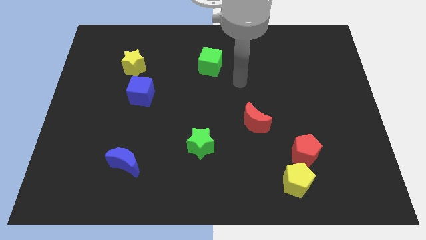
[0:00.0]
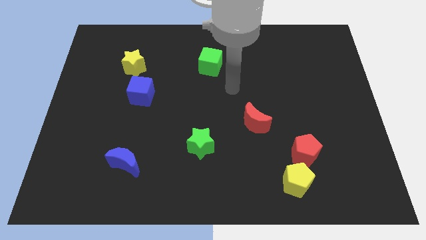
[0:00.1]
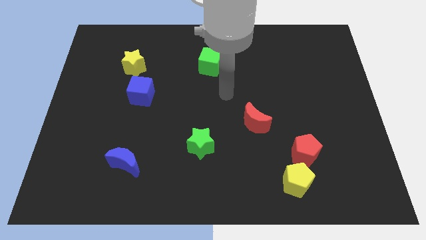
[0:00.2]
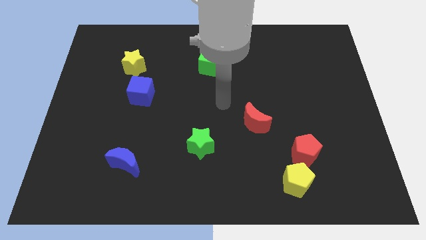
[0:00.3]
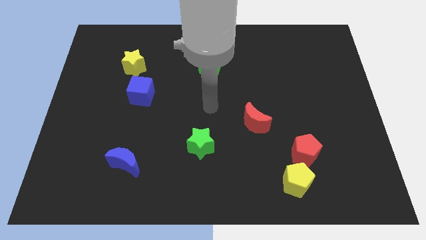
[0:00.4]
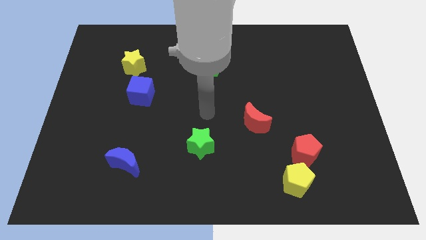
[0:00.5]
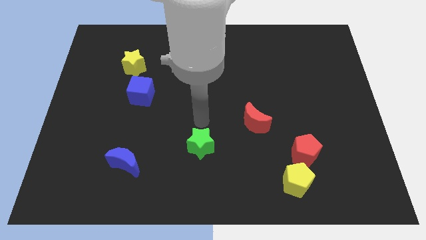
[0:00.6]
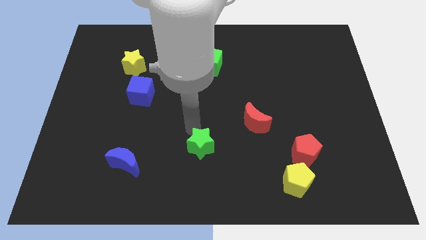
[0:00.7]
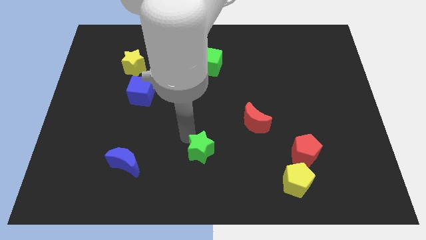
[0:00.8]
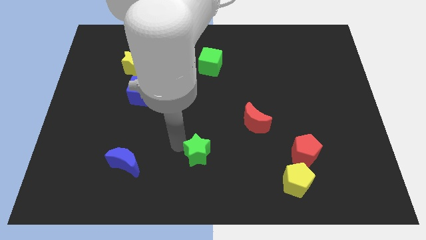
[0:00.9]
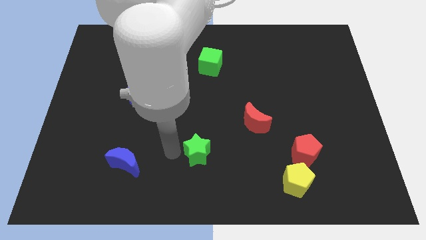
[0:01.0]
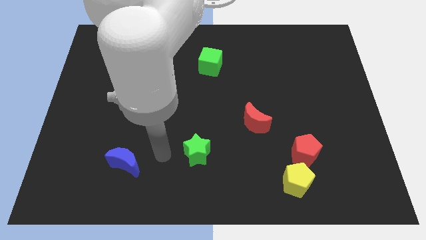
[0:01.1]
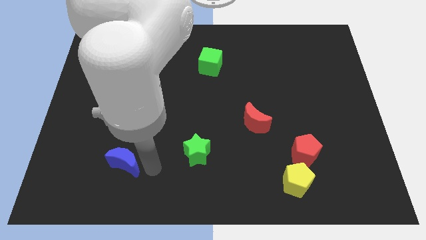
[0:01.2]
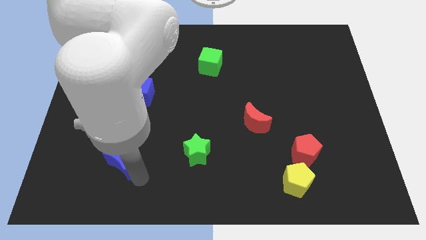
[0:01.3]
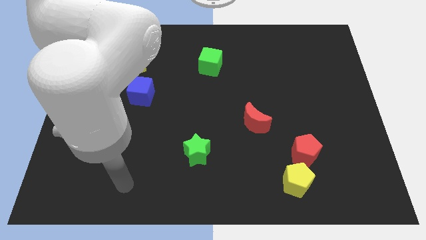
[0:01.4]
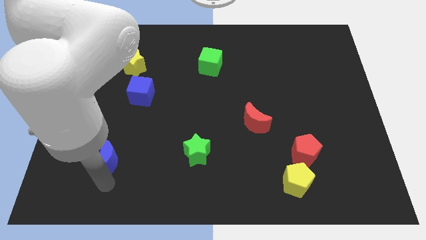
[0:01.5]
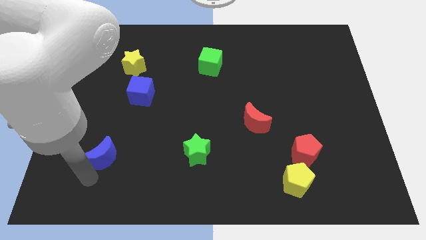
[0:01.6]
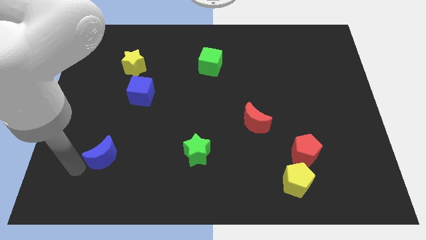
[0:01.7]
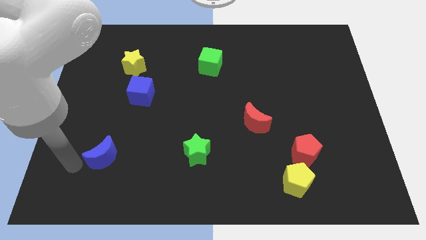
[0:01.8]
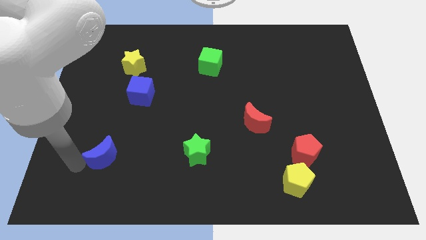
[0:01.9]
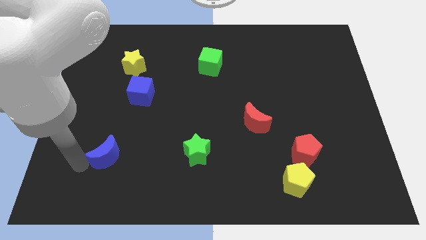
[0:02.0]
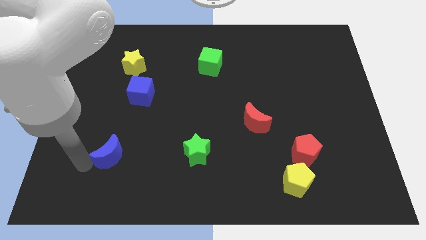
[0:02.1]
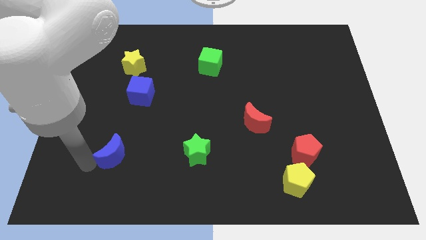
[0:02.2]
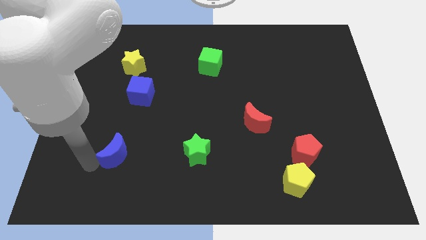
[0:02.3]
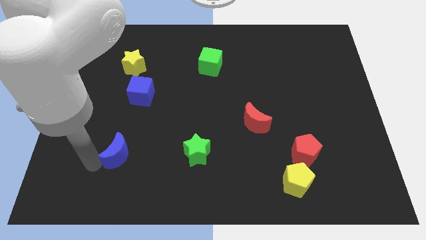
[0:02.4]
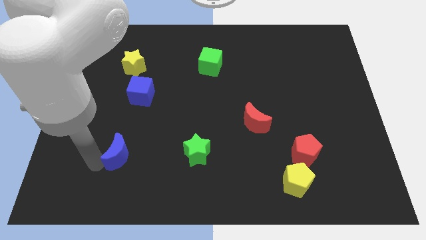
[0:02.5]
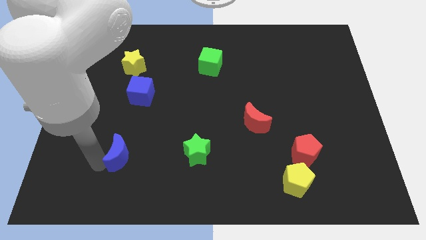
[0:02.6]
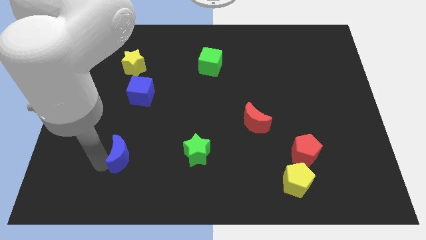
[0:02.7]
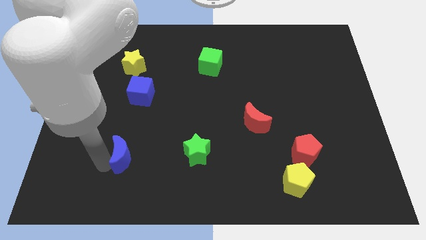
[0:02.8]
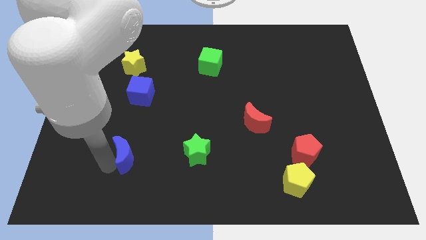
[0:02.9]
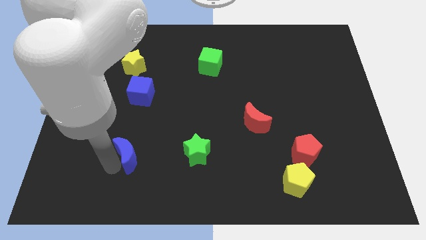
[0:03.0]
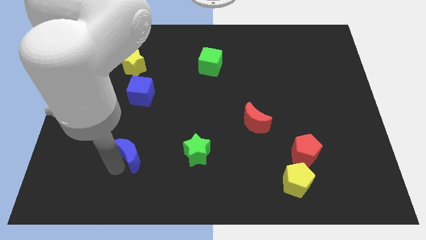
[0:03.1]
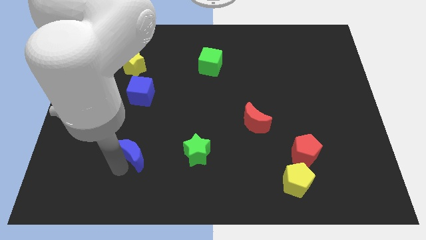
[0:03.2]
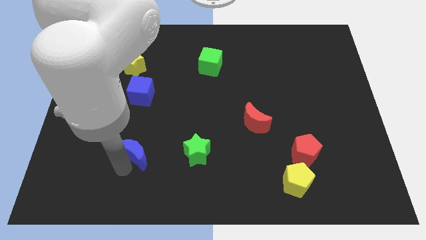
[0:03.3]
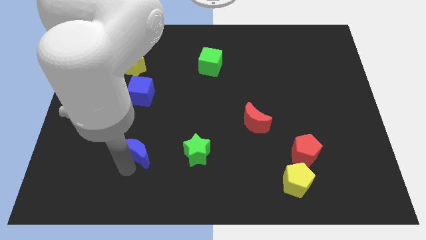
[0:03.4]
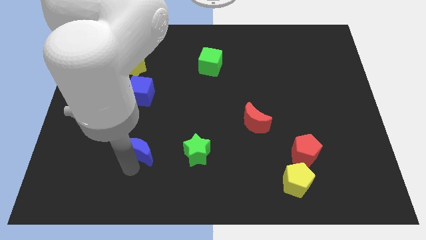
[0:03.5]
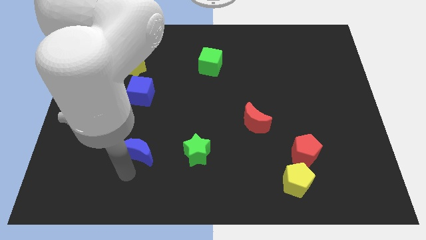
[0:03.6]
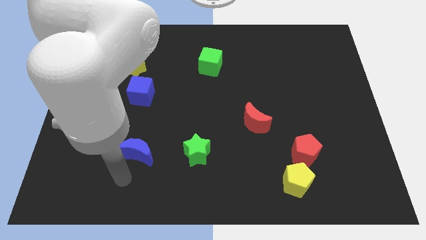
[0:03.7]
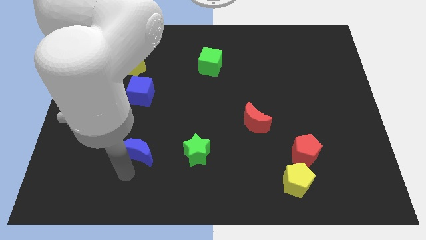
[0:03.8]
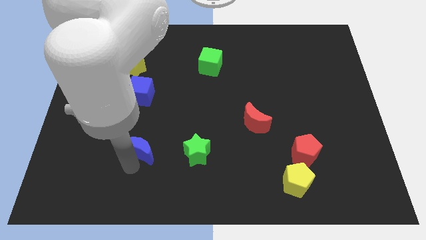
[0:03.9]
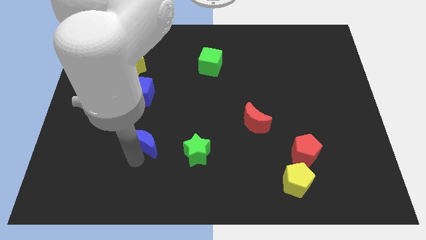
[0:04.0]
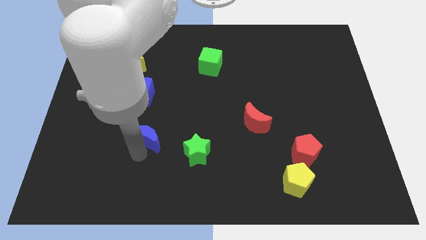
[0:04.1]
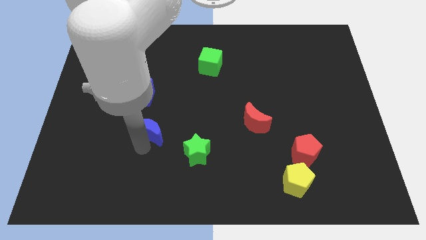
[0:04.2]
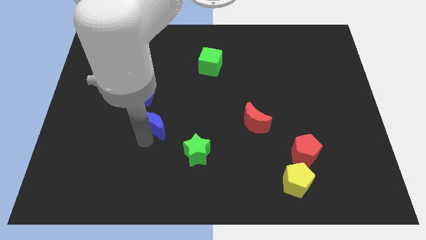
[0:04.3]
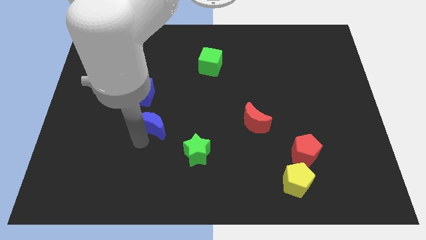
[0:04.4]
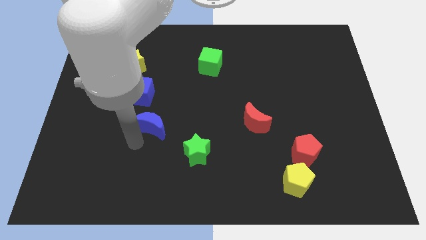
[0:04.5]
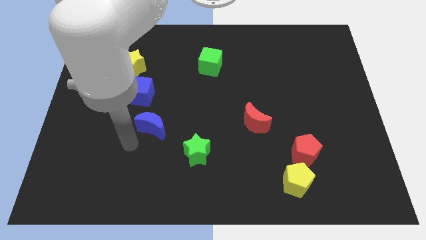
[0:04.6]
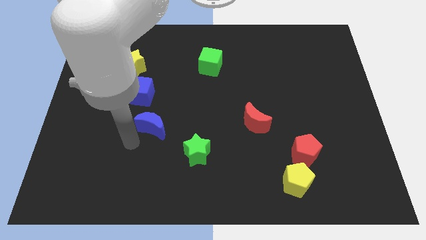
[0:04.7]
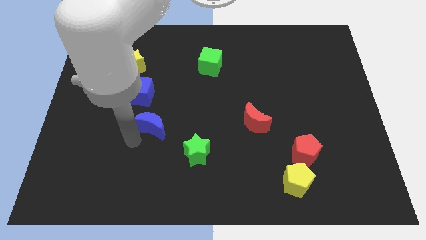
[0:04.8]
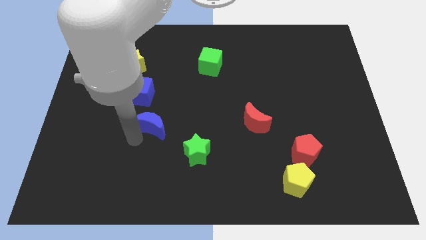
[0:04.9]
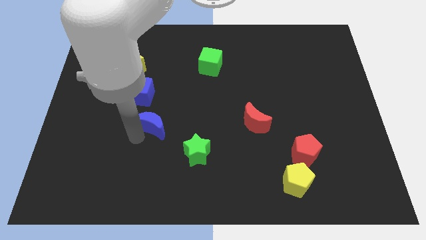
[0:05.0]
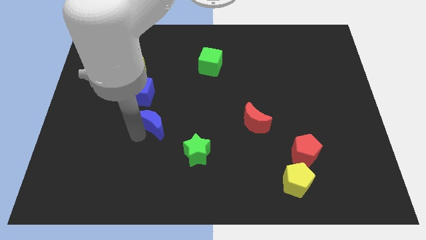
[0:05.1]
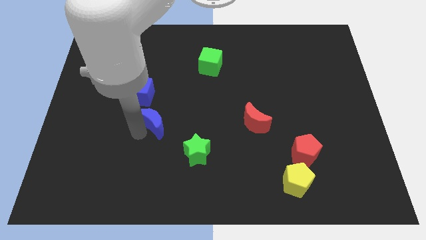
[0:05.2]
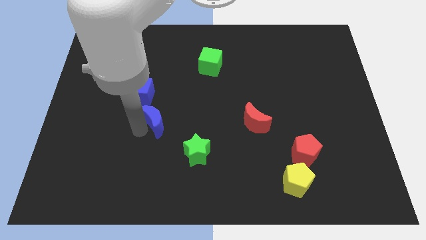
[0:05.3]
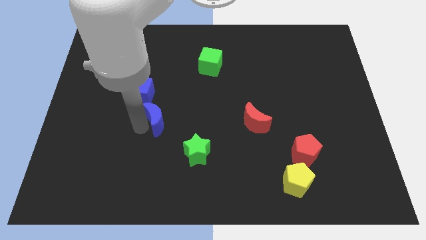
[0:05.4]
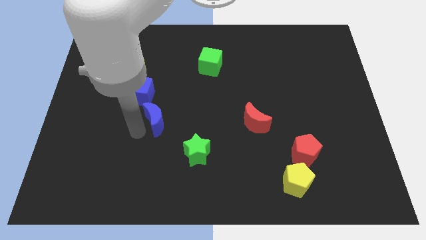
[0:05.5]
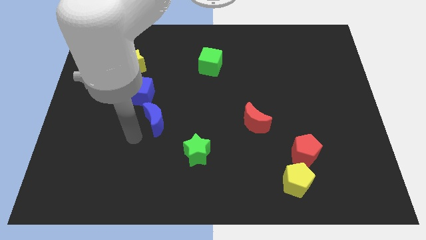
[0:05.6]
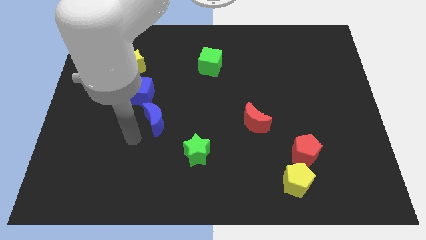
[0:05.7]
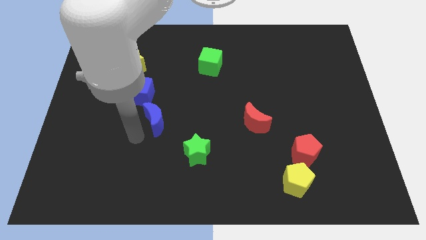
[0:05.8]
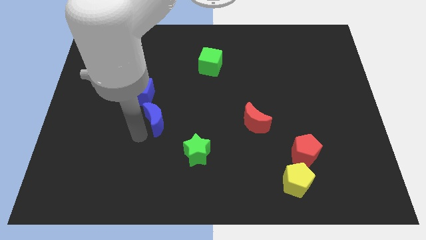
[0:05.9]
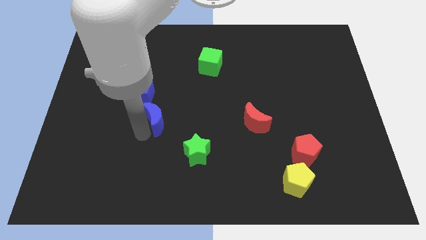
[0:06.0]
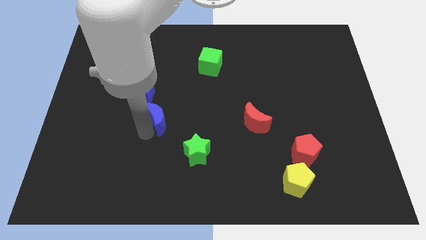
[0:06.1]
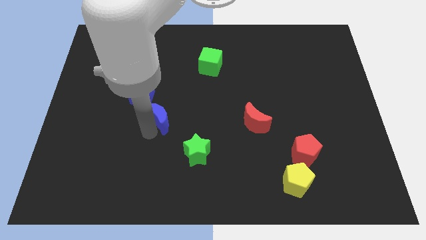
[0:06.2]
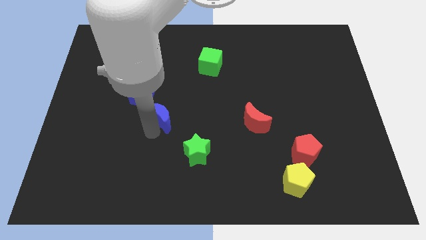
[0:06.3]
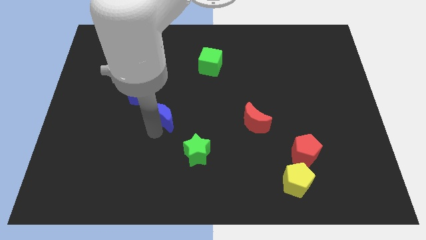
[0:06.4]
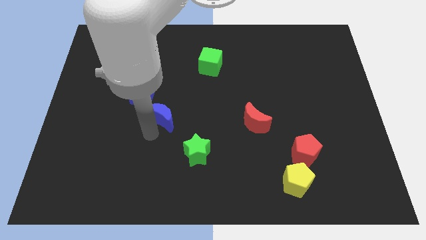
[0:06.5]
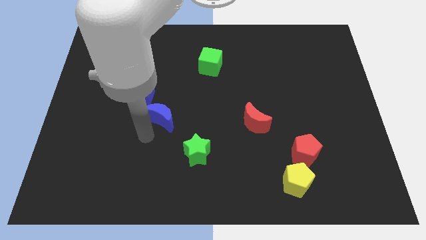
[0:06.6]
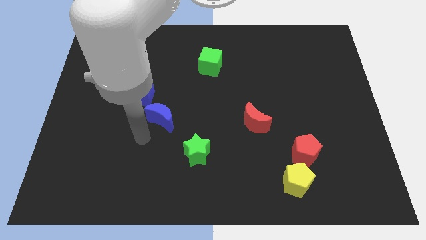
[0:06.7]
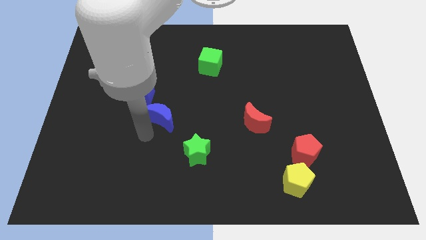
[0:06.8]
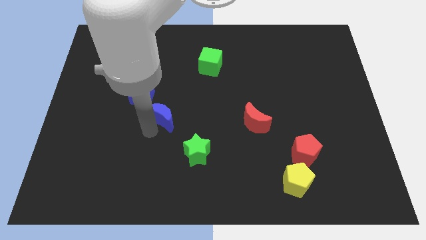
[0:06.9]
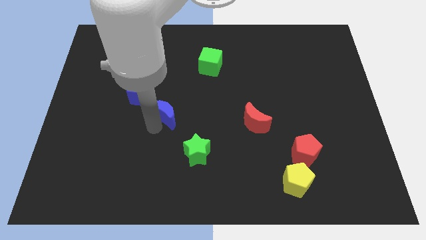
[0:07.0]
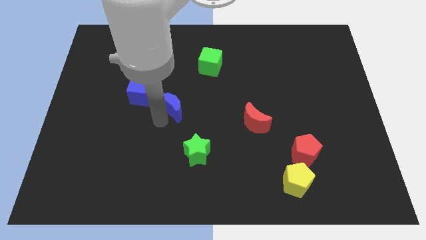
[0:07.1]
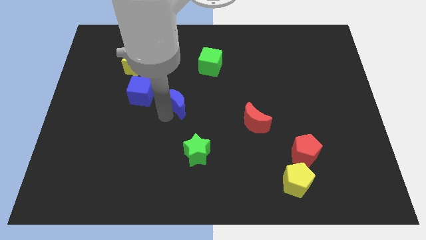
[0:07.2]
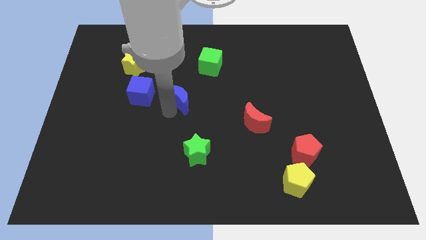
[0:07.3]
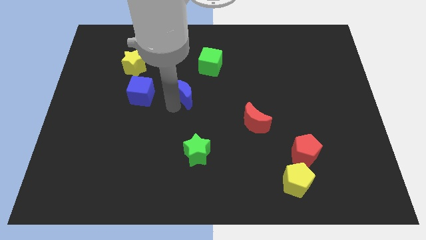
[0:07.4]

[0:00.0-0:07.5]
slide the blue moon upwards and then to the right

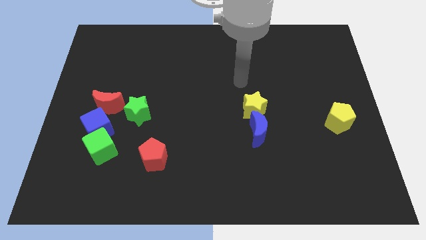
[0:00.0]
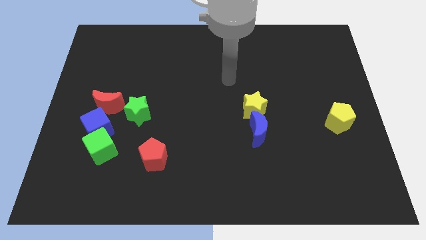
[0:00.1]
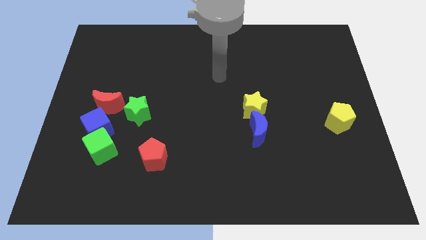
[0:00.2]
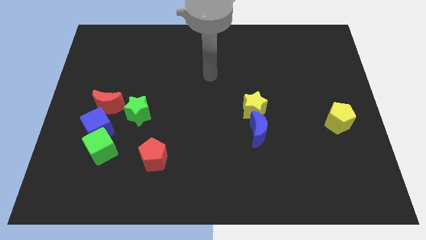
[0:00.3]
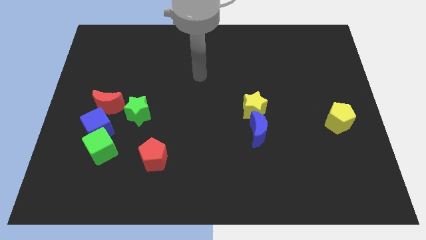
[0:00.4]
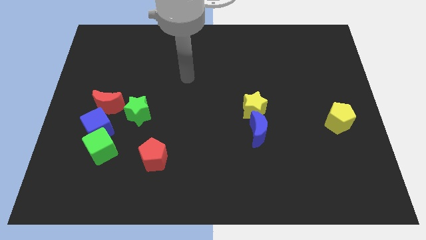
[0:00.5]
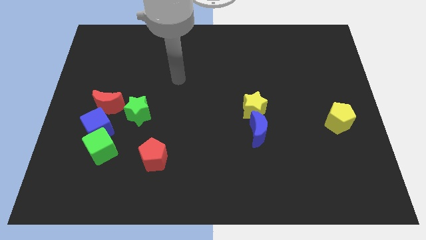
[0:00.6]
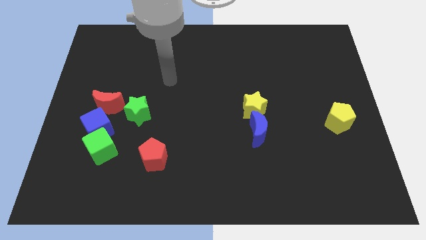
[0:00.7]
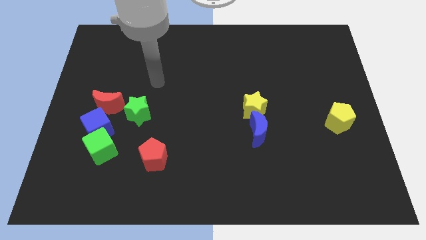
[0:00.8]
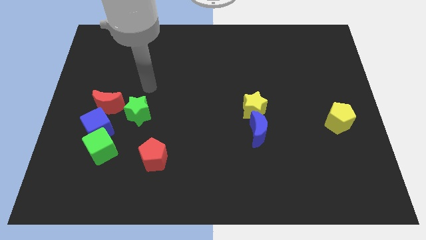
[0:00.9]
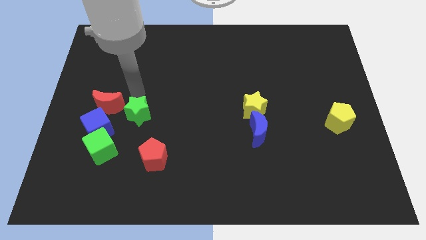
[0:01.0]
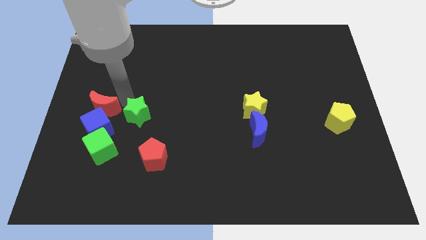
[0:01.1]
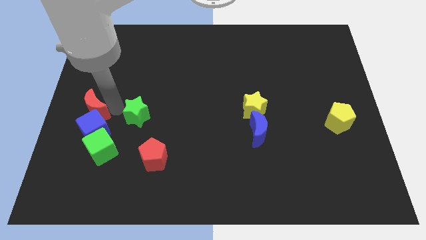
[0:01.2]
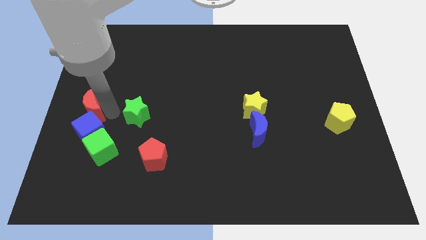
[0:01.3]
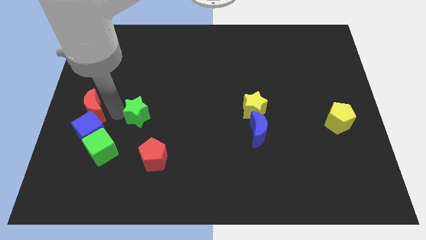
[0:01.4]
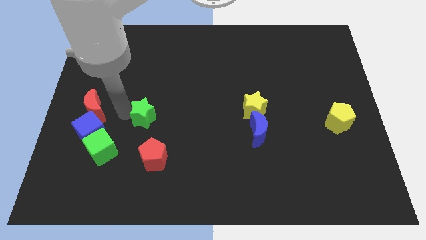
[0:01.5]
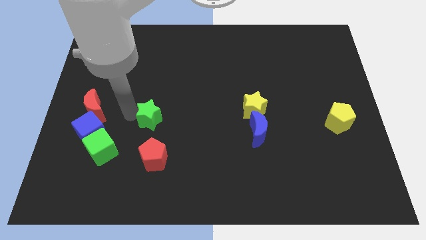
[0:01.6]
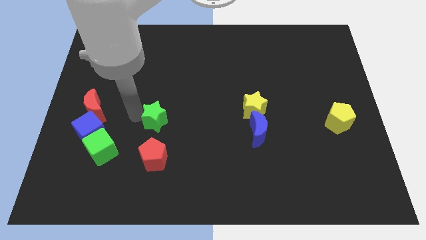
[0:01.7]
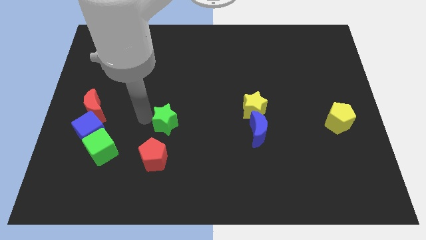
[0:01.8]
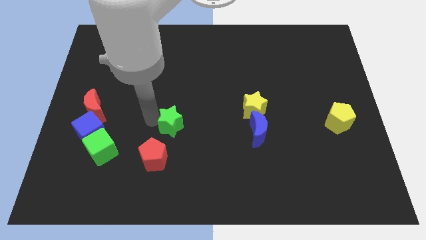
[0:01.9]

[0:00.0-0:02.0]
move the green star to the right slightly
